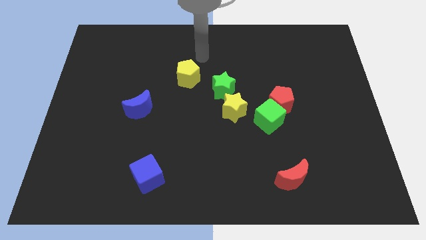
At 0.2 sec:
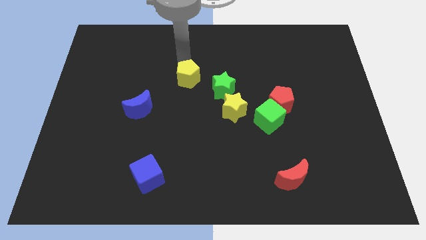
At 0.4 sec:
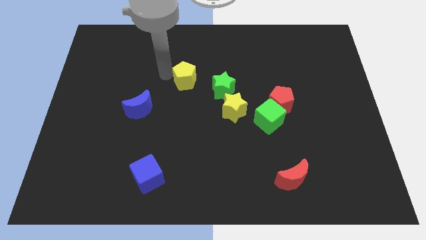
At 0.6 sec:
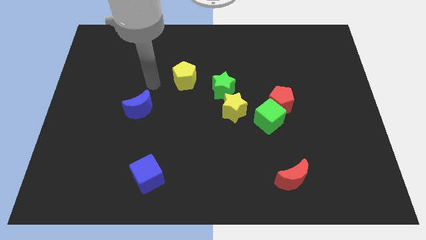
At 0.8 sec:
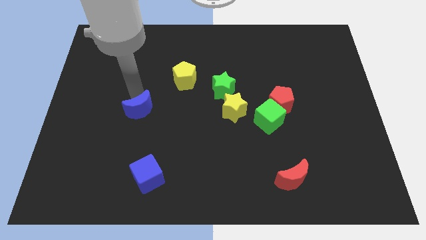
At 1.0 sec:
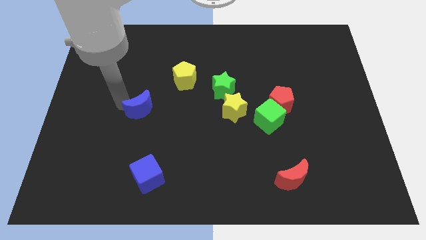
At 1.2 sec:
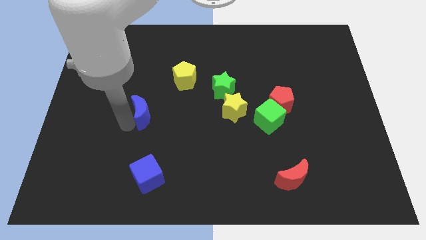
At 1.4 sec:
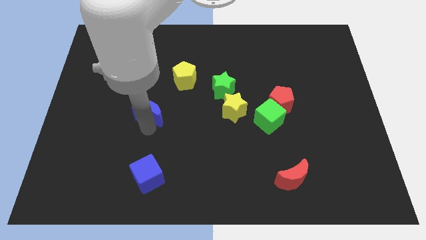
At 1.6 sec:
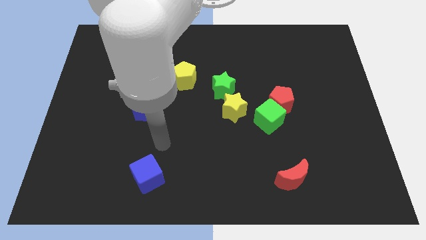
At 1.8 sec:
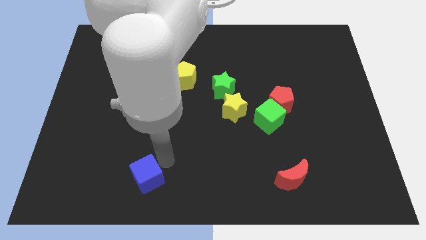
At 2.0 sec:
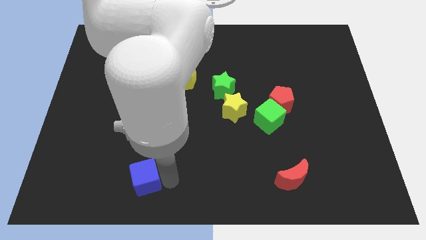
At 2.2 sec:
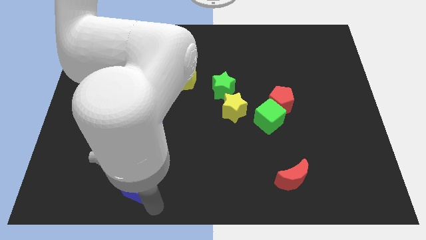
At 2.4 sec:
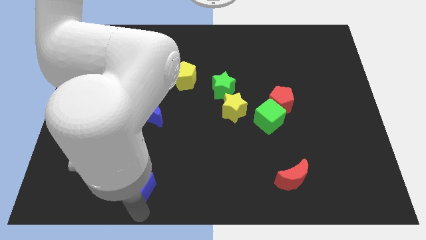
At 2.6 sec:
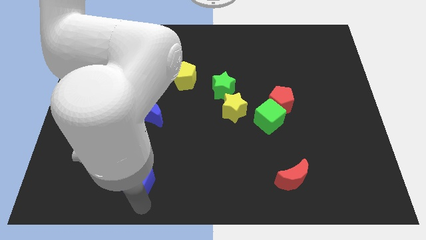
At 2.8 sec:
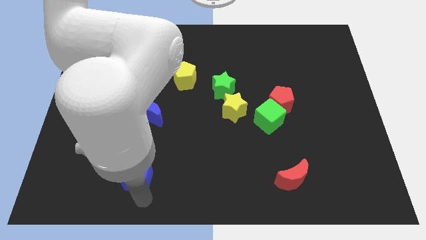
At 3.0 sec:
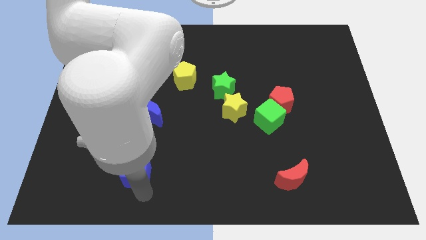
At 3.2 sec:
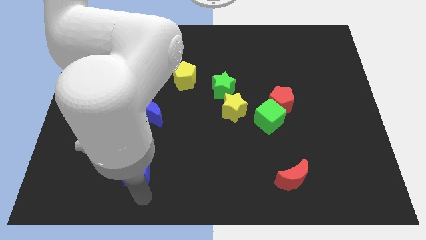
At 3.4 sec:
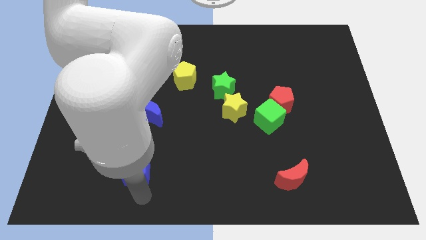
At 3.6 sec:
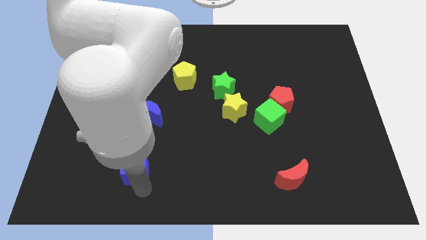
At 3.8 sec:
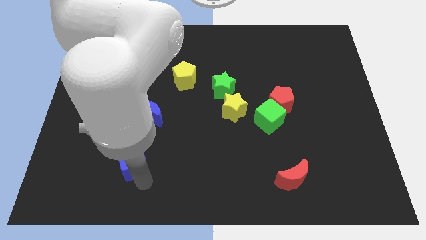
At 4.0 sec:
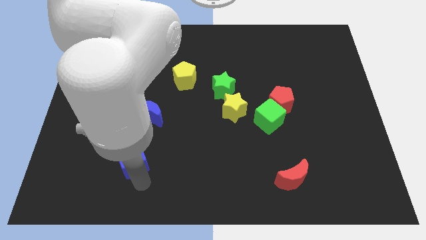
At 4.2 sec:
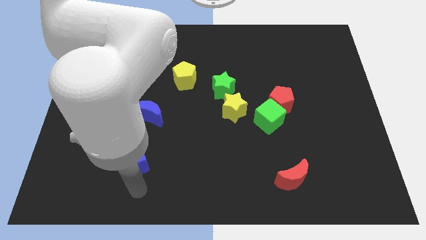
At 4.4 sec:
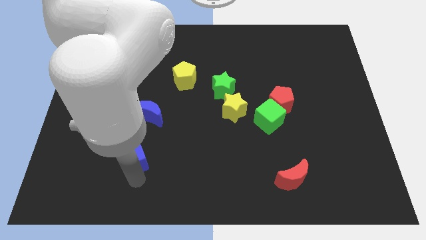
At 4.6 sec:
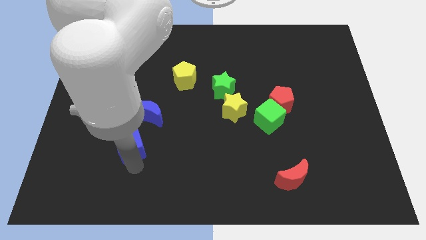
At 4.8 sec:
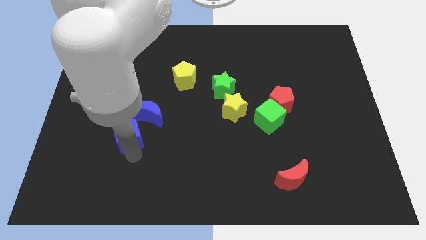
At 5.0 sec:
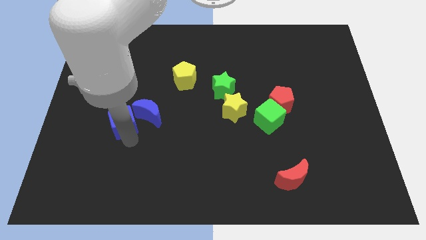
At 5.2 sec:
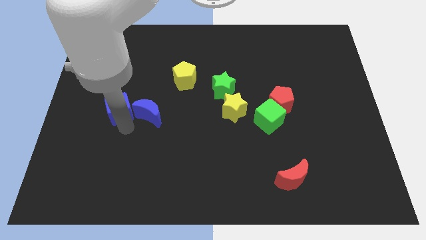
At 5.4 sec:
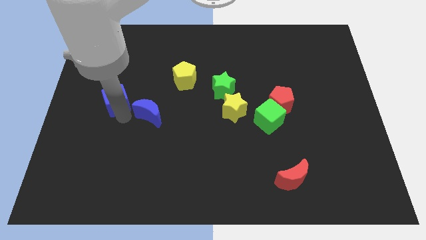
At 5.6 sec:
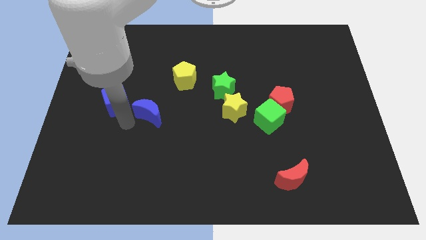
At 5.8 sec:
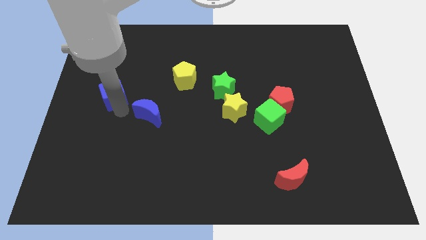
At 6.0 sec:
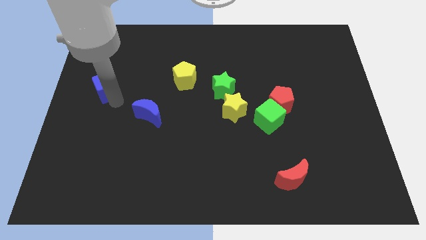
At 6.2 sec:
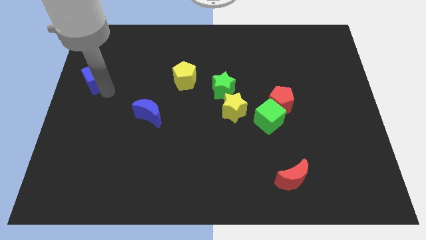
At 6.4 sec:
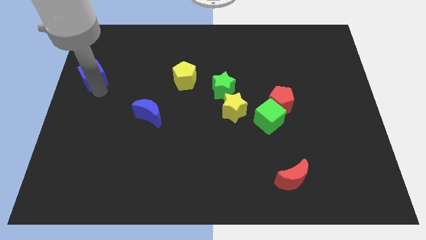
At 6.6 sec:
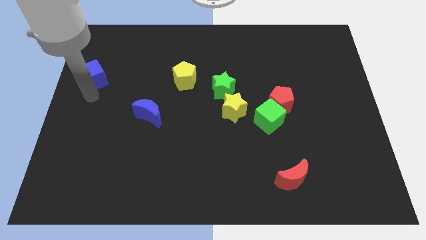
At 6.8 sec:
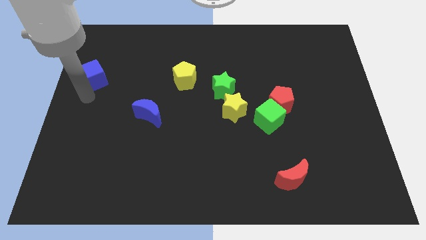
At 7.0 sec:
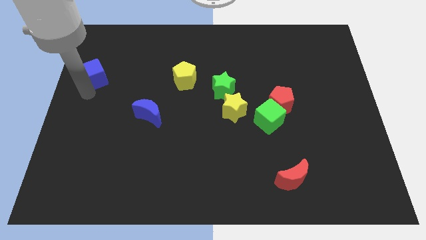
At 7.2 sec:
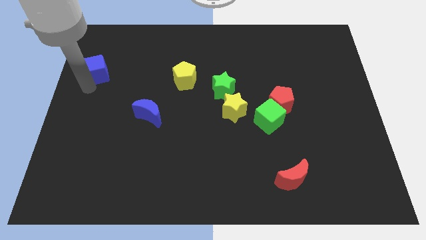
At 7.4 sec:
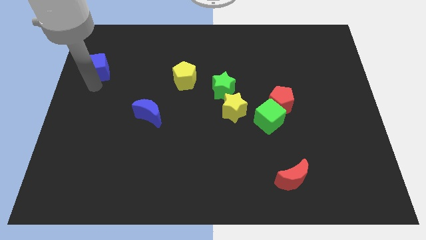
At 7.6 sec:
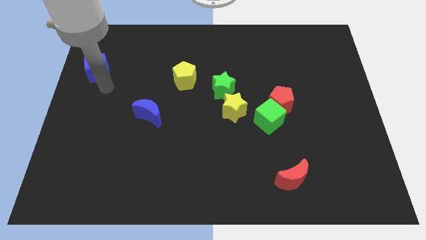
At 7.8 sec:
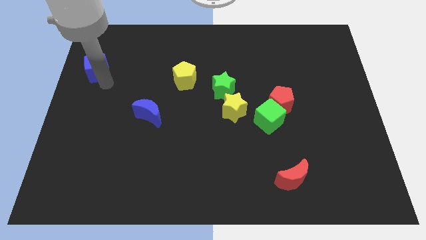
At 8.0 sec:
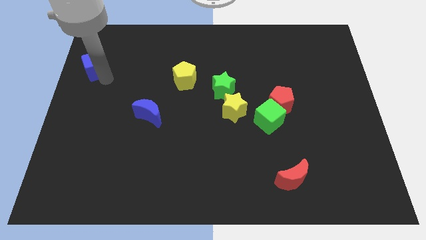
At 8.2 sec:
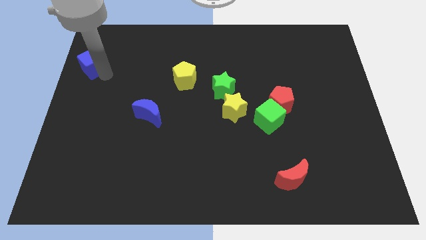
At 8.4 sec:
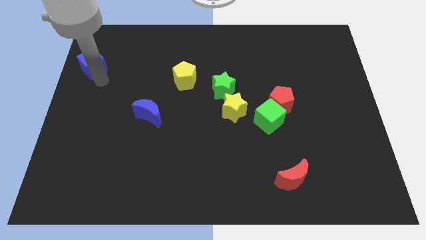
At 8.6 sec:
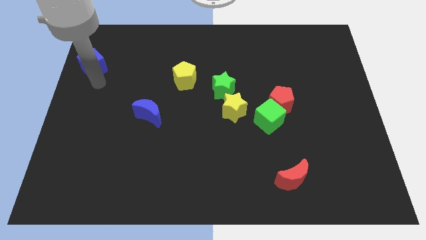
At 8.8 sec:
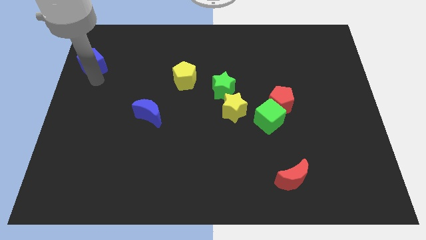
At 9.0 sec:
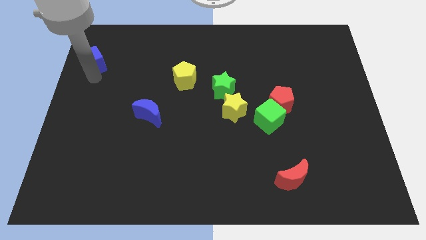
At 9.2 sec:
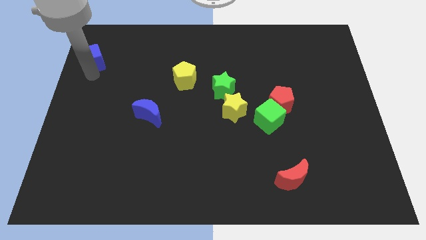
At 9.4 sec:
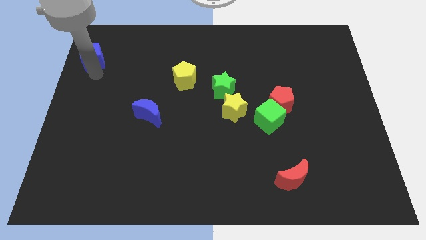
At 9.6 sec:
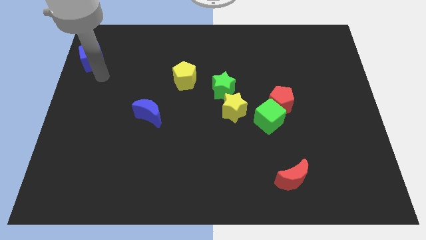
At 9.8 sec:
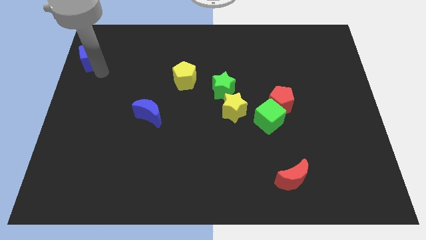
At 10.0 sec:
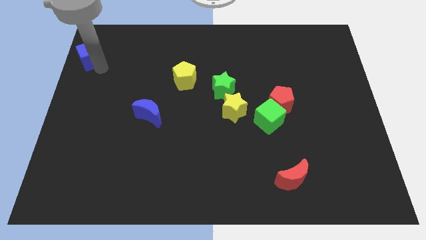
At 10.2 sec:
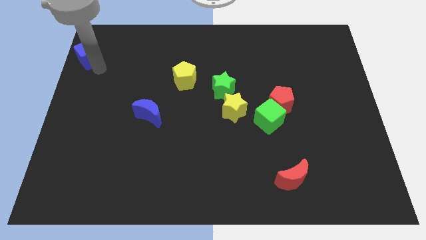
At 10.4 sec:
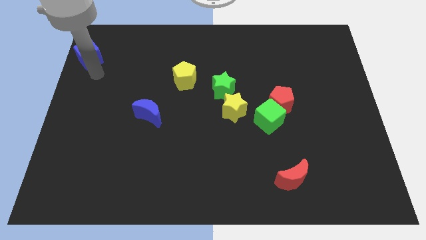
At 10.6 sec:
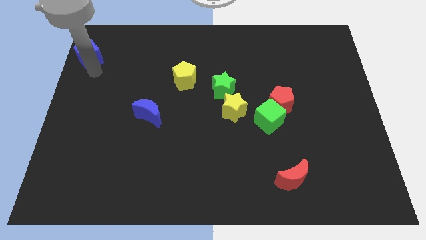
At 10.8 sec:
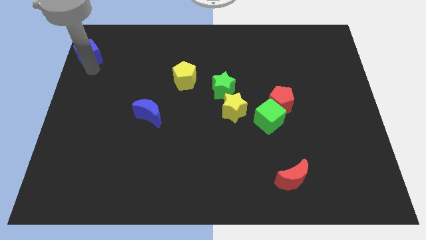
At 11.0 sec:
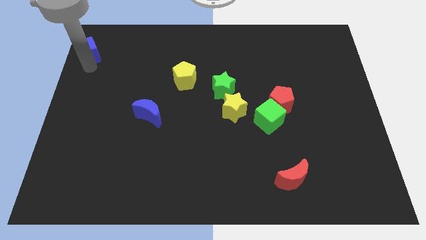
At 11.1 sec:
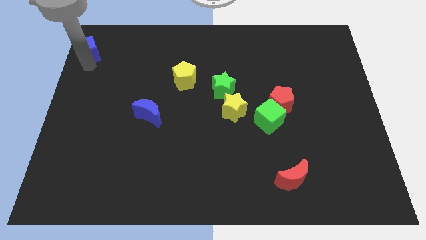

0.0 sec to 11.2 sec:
put the blue cube to the top left

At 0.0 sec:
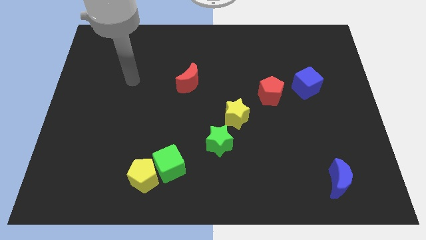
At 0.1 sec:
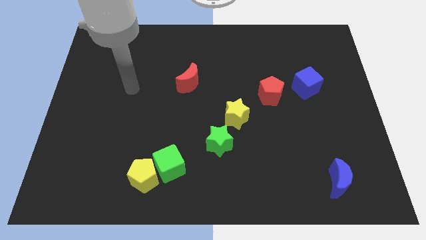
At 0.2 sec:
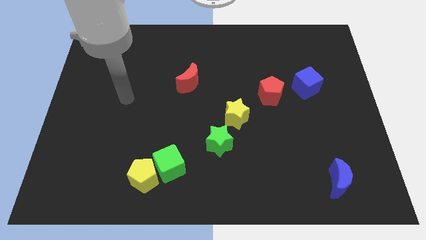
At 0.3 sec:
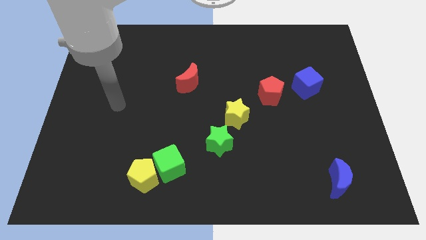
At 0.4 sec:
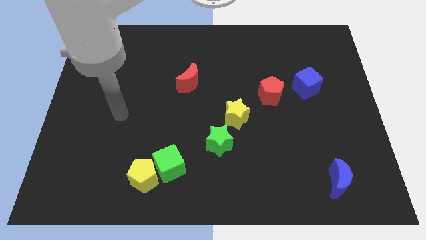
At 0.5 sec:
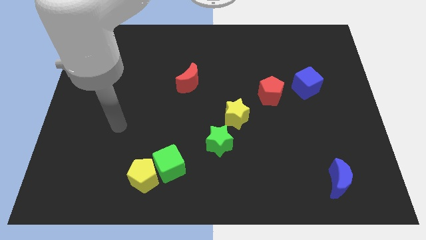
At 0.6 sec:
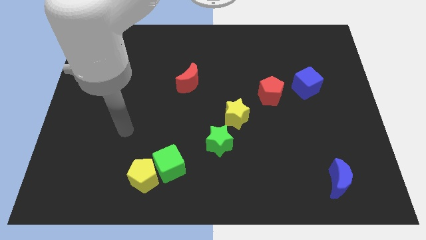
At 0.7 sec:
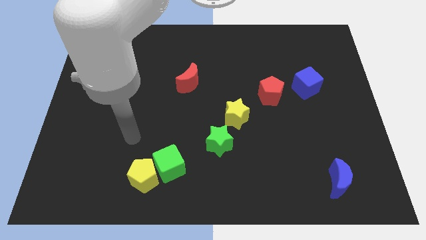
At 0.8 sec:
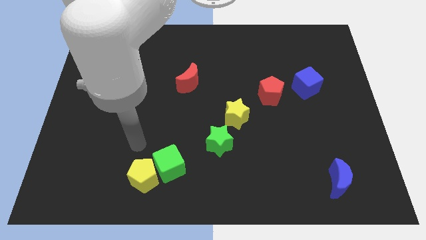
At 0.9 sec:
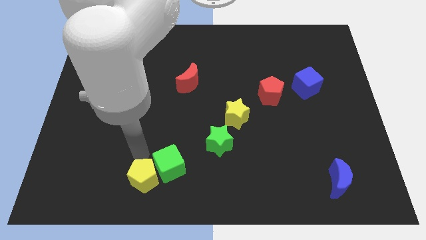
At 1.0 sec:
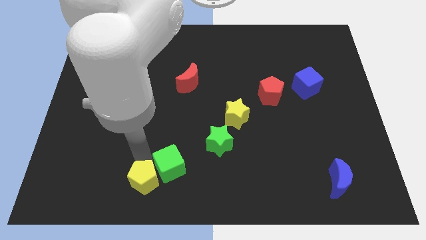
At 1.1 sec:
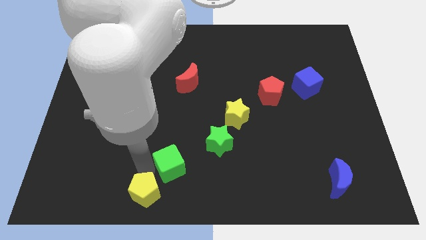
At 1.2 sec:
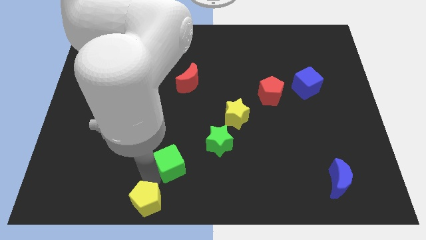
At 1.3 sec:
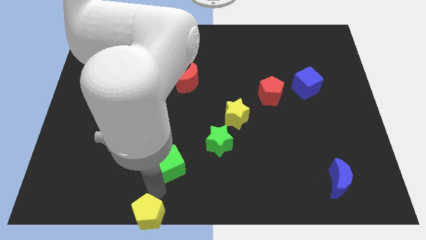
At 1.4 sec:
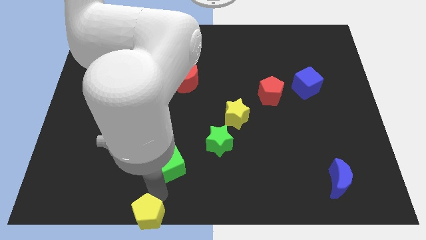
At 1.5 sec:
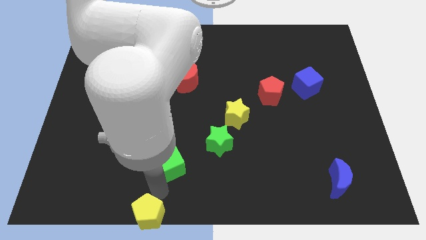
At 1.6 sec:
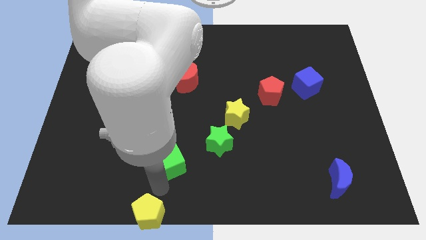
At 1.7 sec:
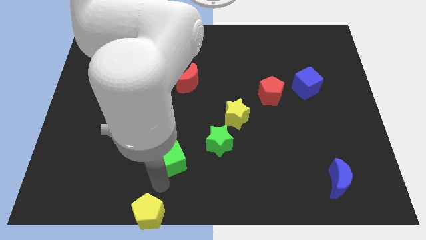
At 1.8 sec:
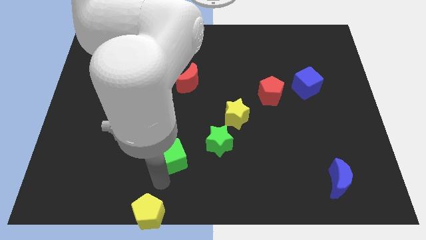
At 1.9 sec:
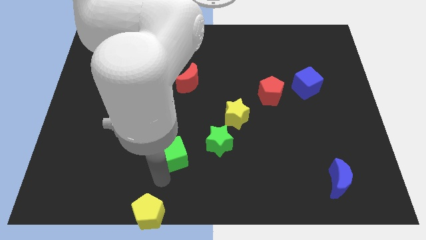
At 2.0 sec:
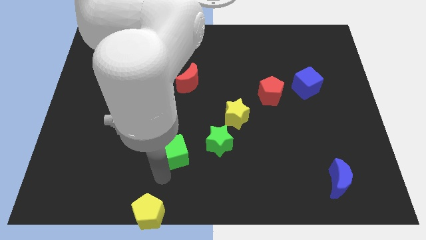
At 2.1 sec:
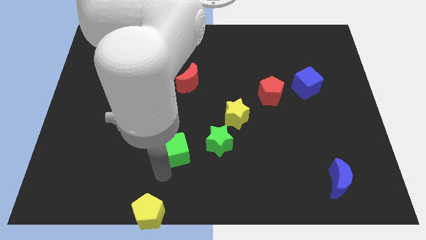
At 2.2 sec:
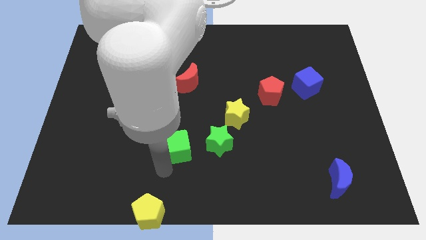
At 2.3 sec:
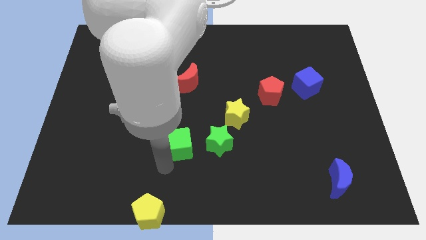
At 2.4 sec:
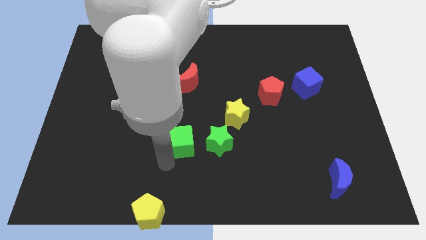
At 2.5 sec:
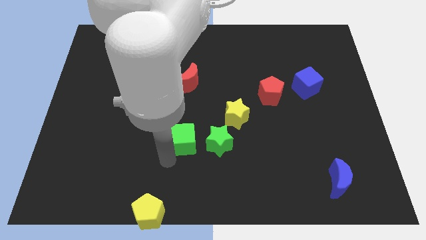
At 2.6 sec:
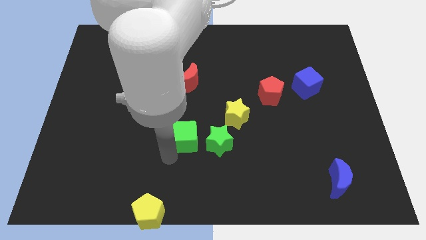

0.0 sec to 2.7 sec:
push the green cube to the center of the board
